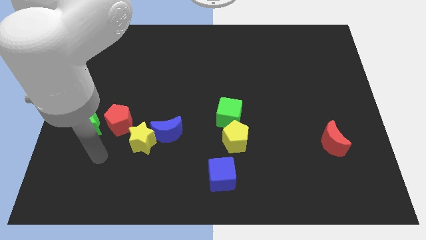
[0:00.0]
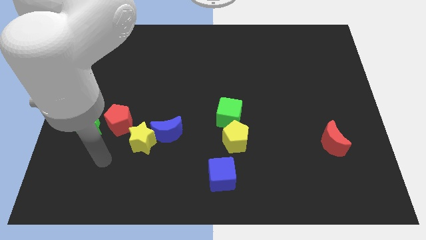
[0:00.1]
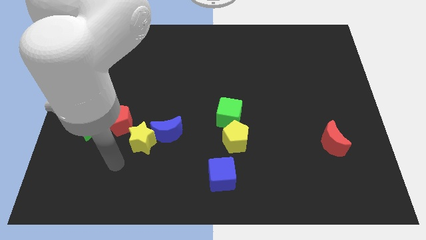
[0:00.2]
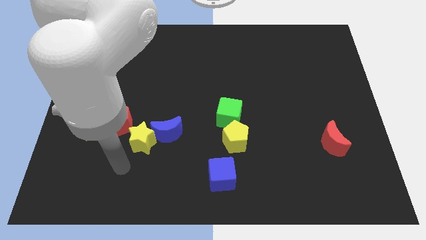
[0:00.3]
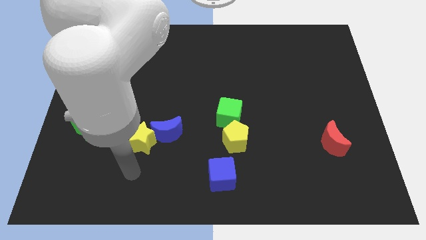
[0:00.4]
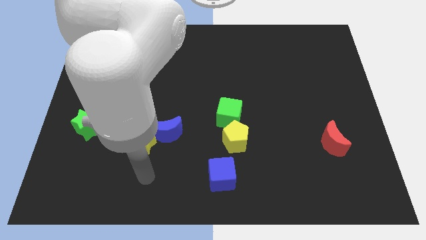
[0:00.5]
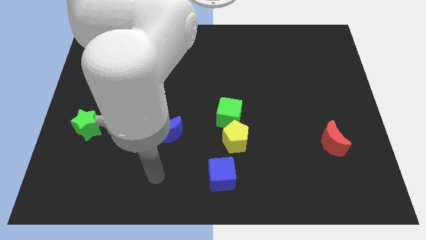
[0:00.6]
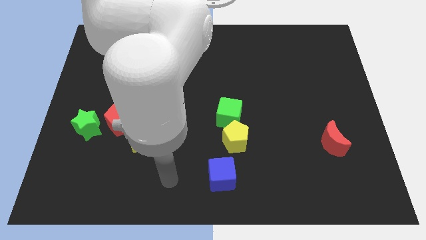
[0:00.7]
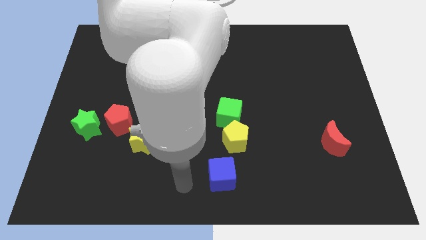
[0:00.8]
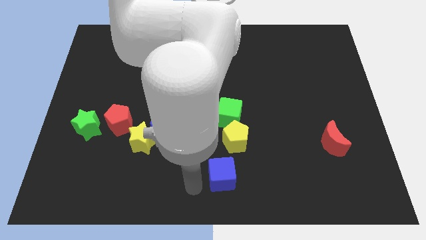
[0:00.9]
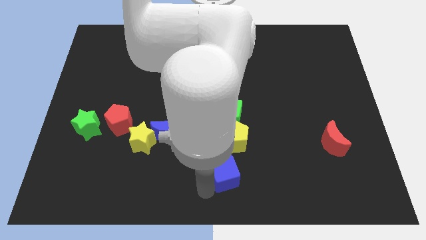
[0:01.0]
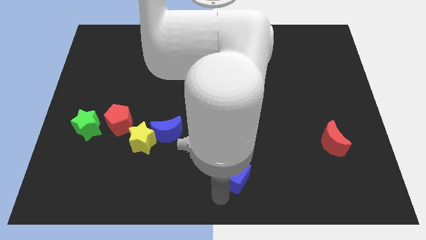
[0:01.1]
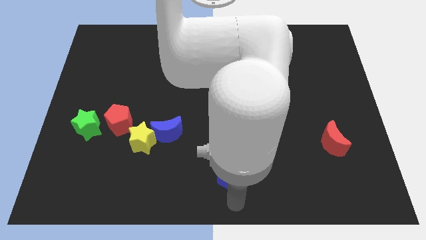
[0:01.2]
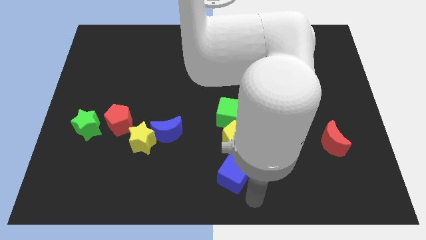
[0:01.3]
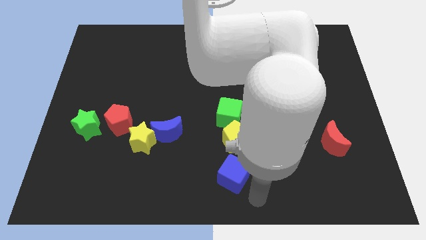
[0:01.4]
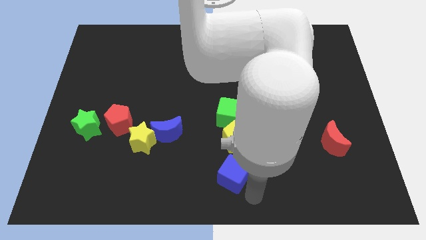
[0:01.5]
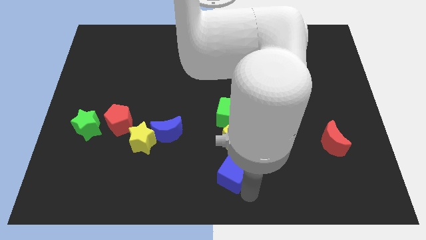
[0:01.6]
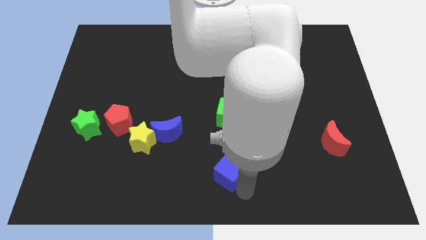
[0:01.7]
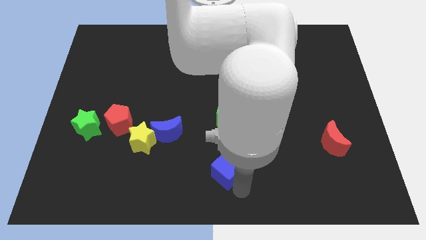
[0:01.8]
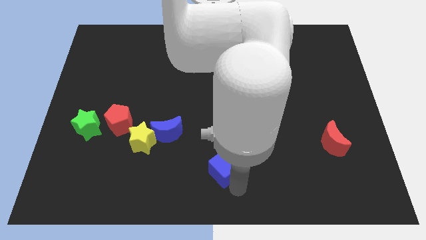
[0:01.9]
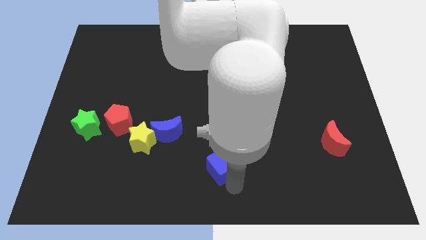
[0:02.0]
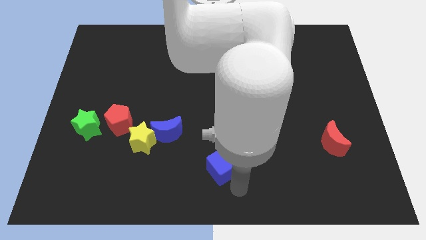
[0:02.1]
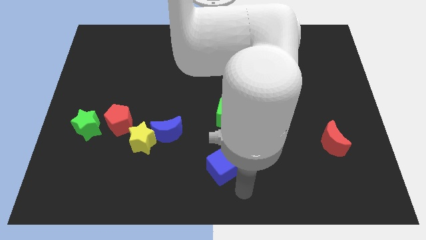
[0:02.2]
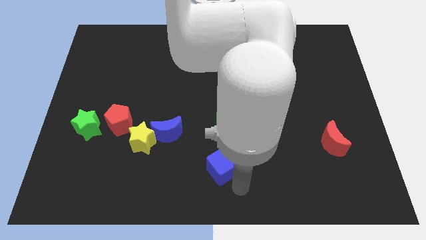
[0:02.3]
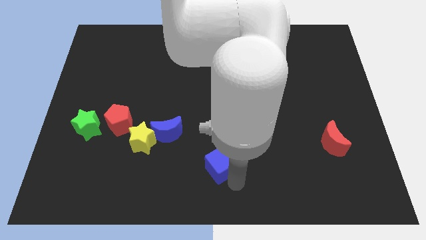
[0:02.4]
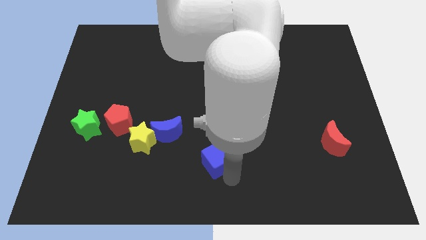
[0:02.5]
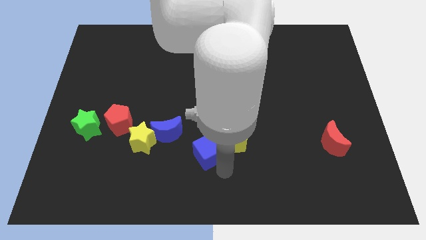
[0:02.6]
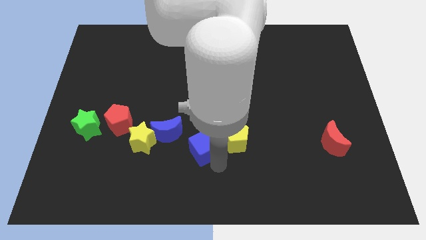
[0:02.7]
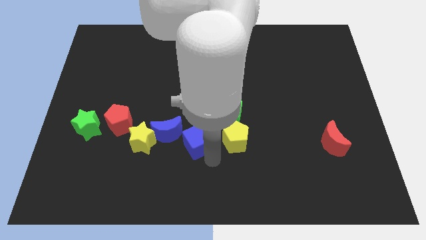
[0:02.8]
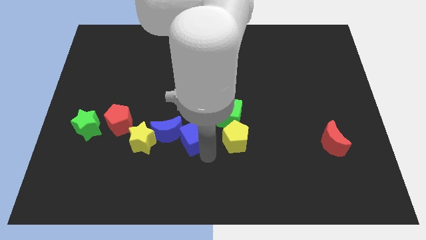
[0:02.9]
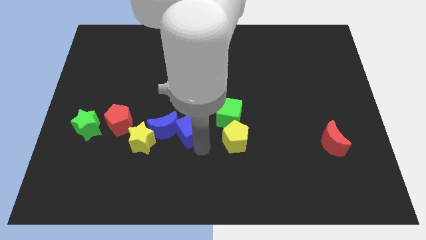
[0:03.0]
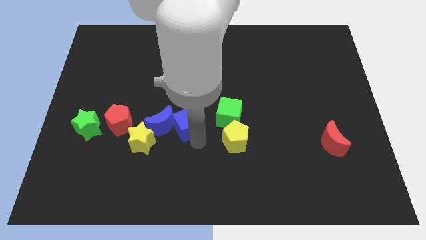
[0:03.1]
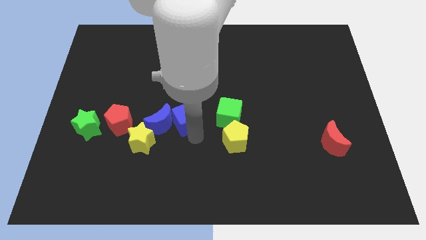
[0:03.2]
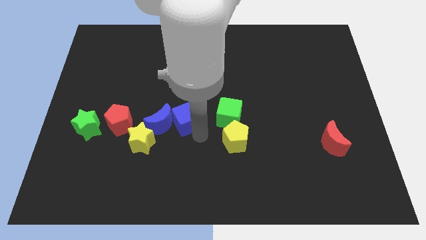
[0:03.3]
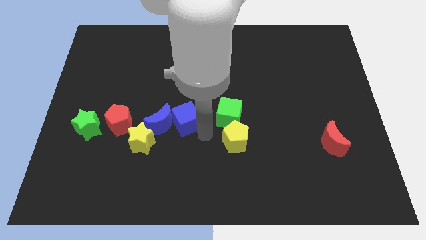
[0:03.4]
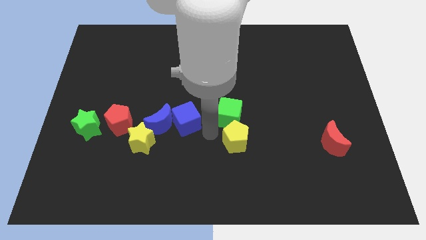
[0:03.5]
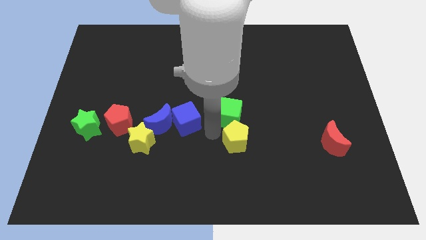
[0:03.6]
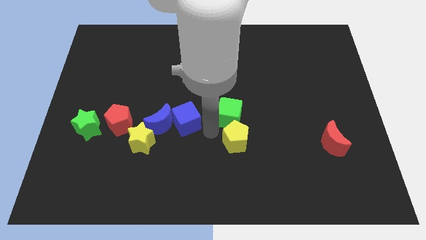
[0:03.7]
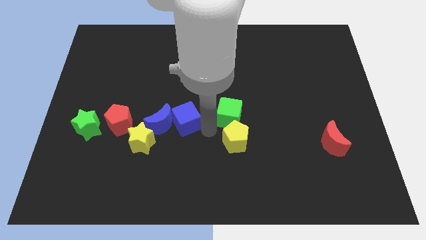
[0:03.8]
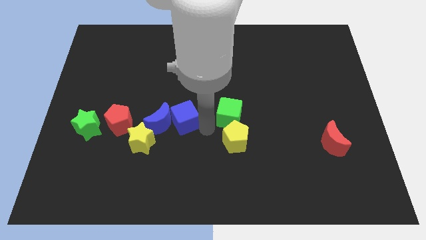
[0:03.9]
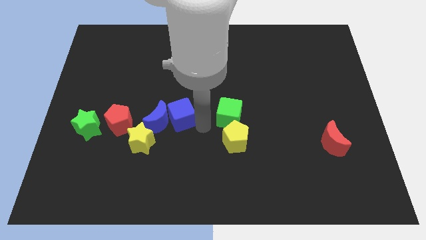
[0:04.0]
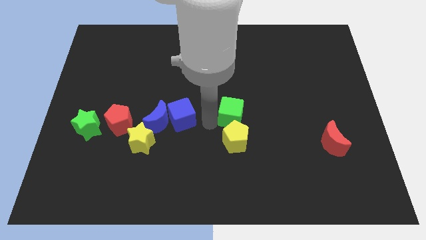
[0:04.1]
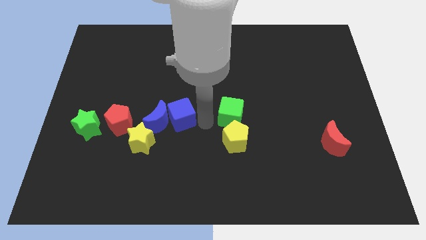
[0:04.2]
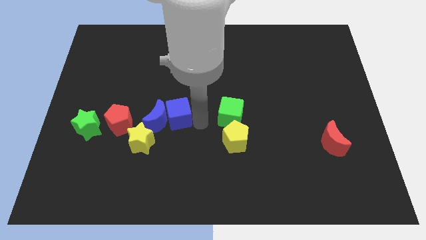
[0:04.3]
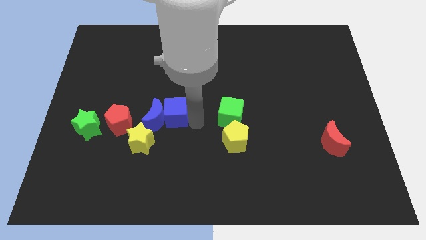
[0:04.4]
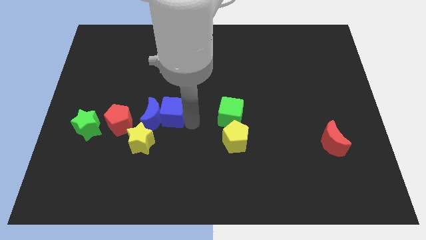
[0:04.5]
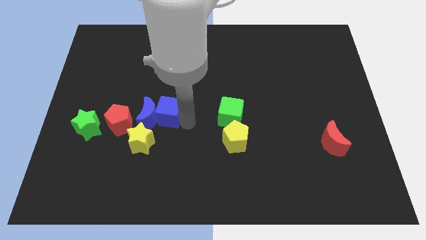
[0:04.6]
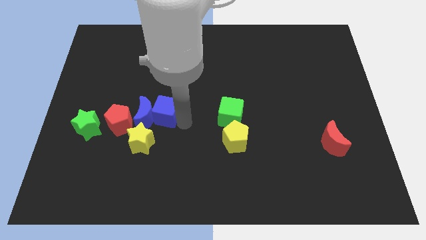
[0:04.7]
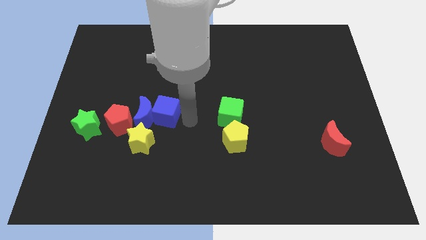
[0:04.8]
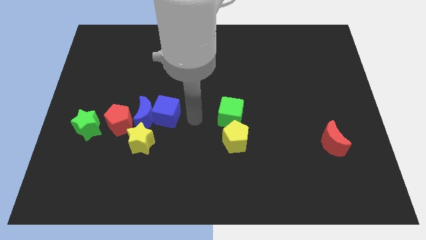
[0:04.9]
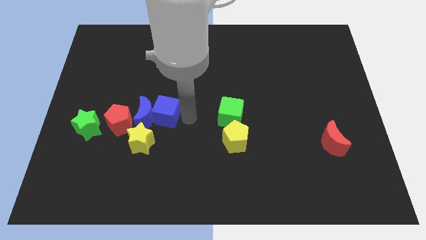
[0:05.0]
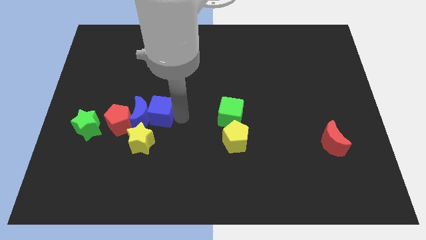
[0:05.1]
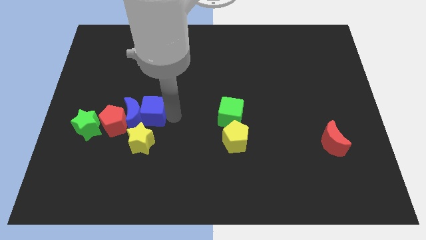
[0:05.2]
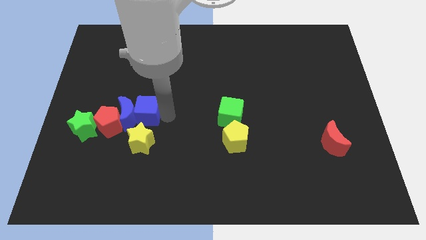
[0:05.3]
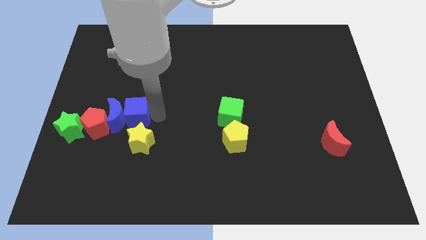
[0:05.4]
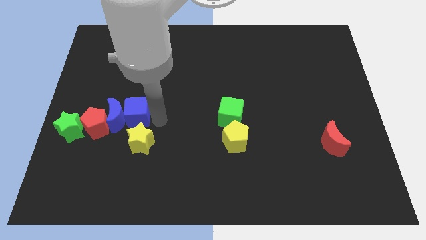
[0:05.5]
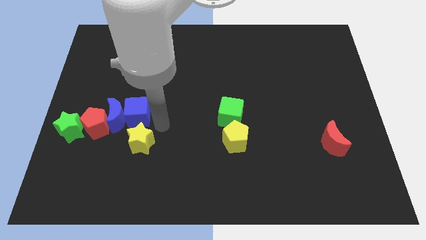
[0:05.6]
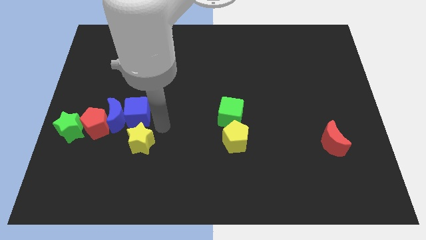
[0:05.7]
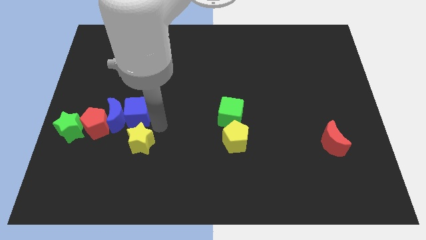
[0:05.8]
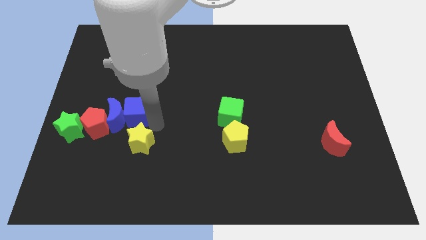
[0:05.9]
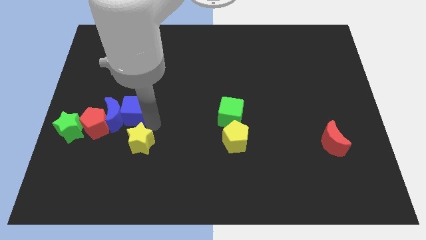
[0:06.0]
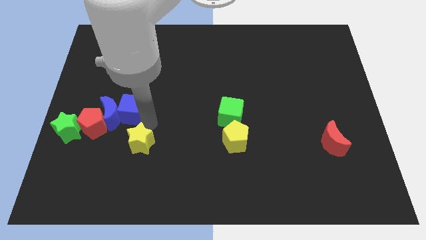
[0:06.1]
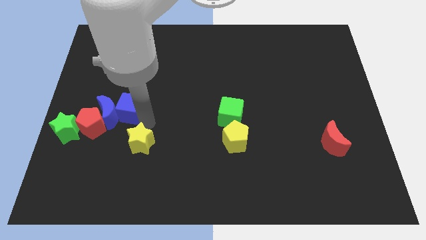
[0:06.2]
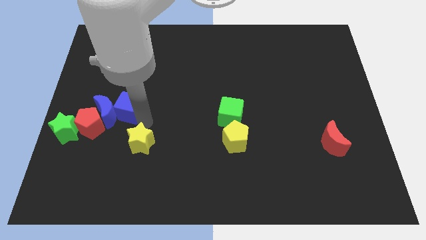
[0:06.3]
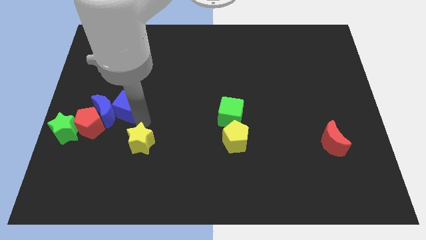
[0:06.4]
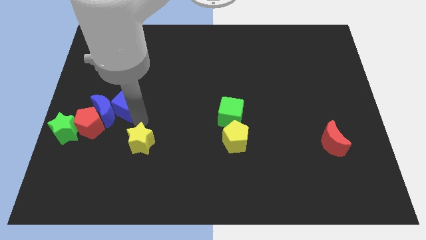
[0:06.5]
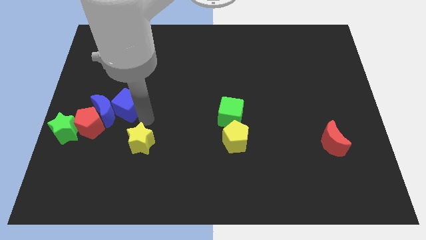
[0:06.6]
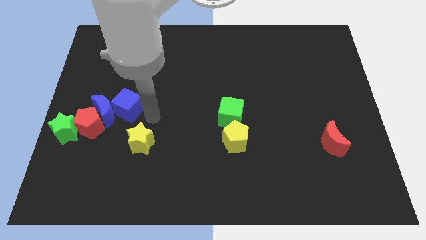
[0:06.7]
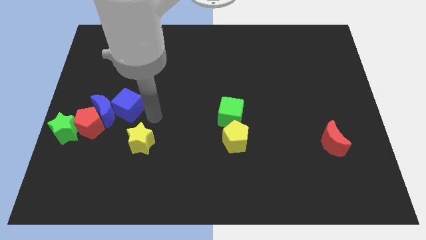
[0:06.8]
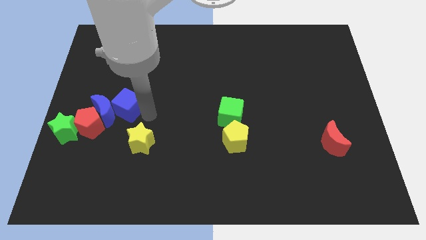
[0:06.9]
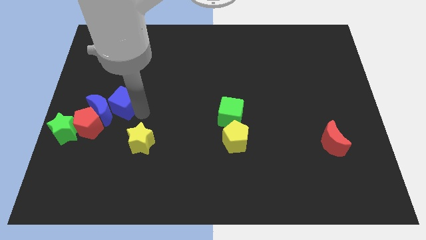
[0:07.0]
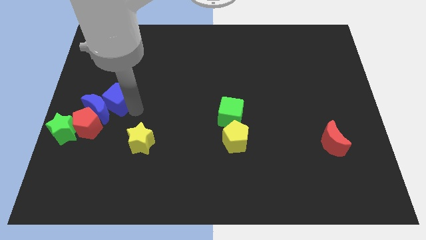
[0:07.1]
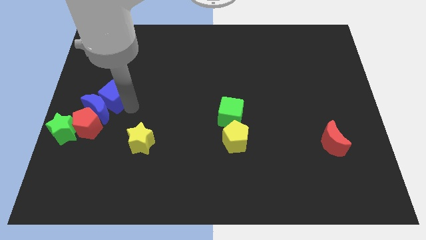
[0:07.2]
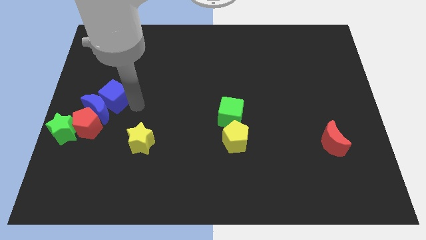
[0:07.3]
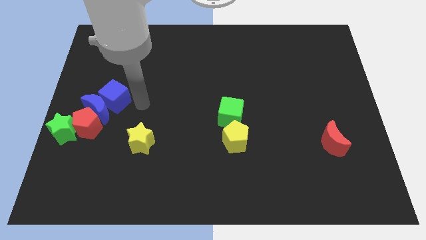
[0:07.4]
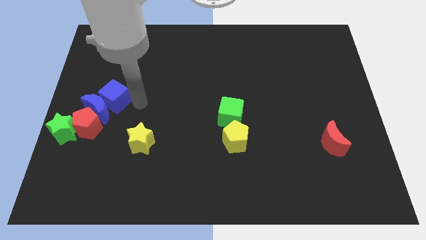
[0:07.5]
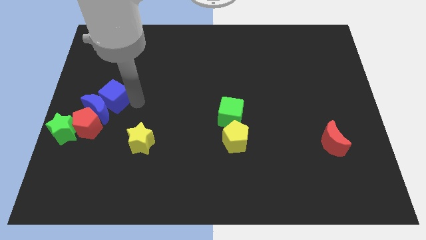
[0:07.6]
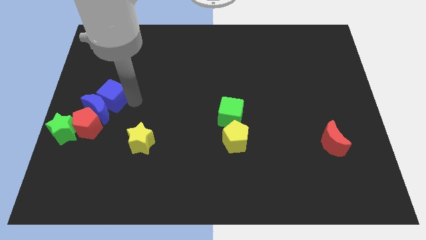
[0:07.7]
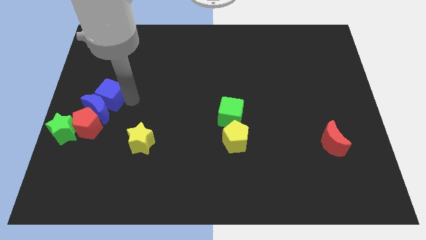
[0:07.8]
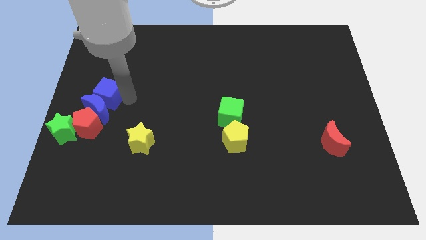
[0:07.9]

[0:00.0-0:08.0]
move the blue cube to the left side of the board
